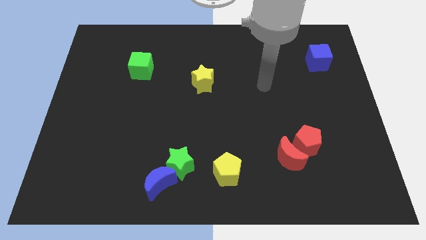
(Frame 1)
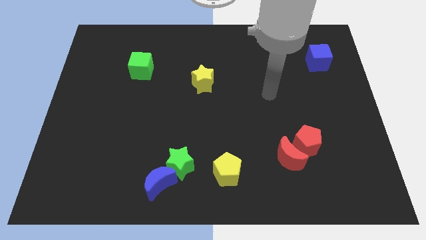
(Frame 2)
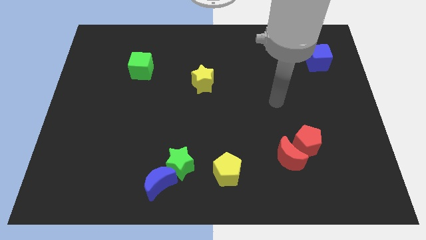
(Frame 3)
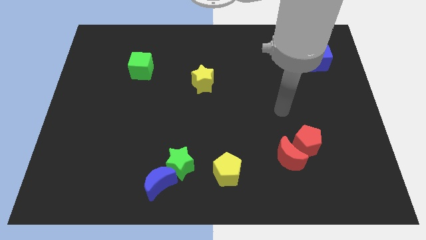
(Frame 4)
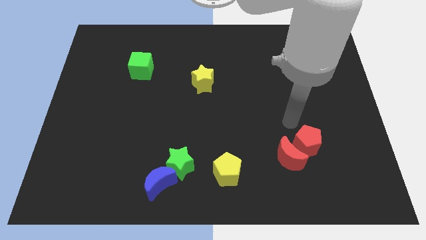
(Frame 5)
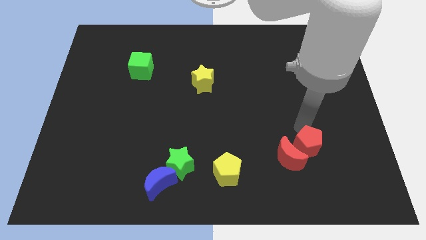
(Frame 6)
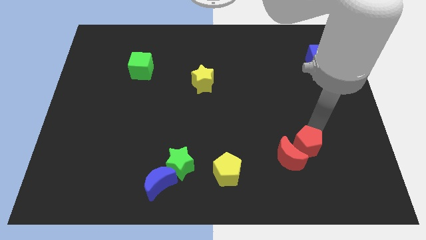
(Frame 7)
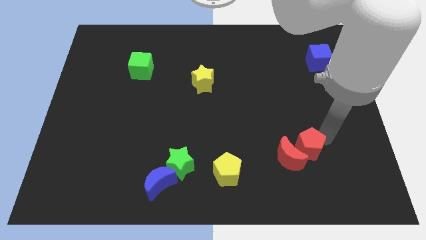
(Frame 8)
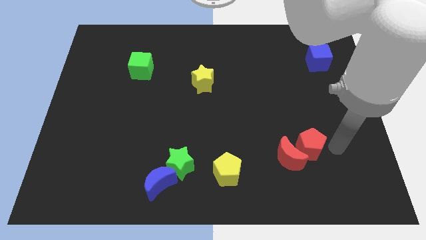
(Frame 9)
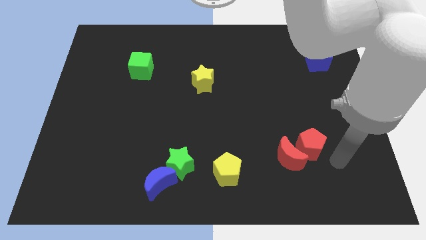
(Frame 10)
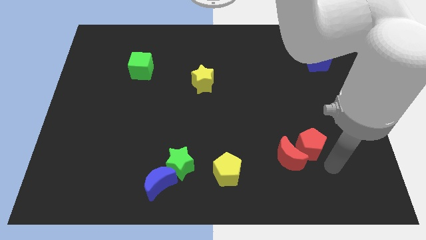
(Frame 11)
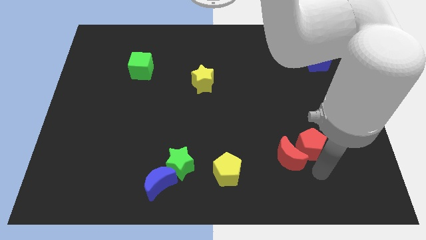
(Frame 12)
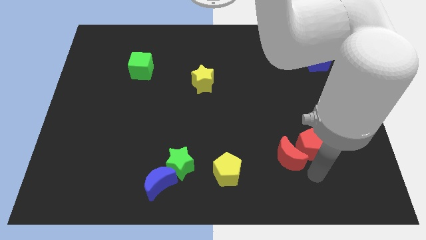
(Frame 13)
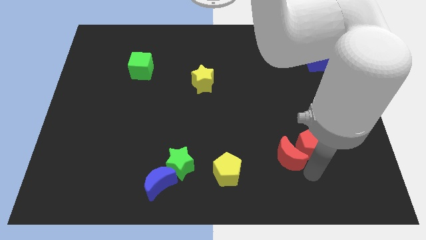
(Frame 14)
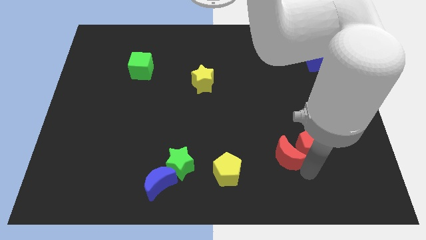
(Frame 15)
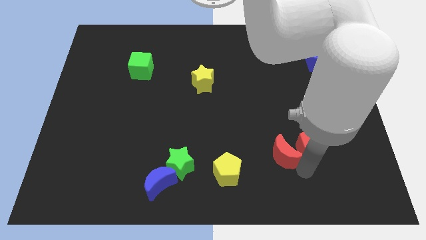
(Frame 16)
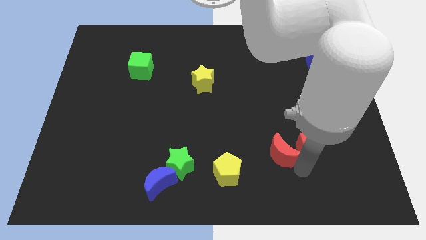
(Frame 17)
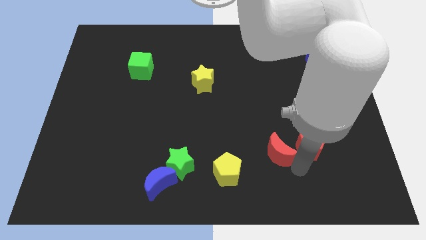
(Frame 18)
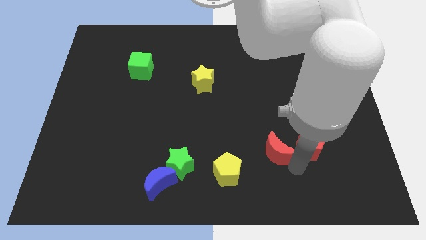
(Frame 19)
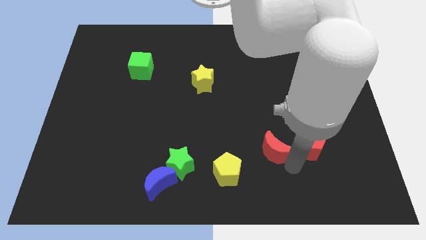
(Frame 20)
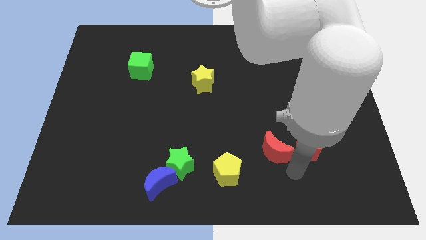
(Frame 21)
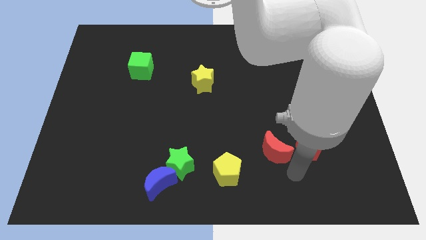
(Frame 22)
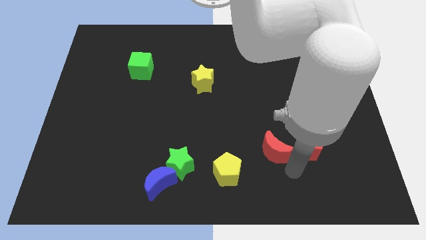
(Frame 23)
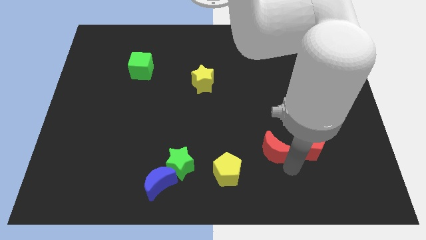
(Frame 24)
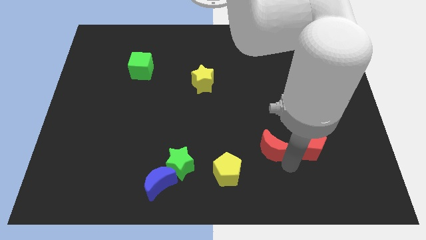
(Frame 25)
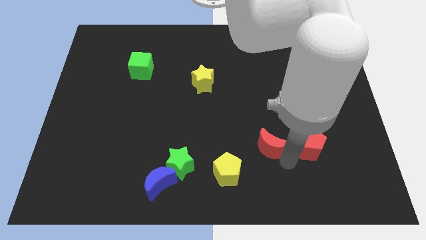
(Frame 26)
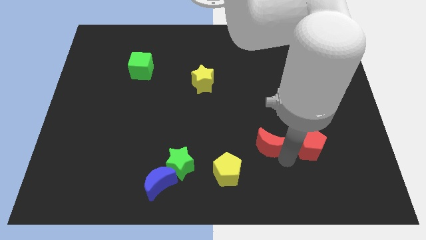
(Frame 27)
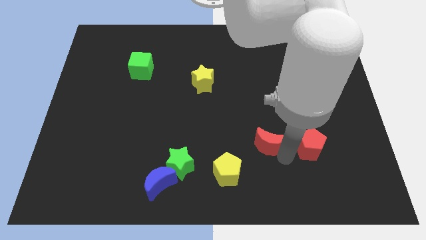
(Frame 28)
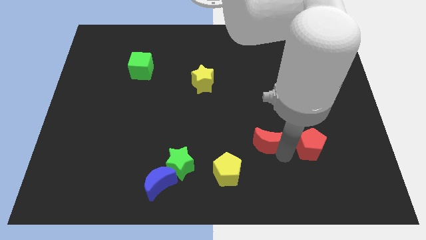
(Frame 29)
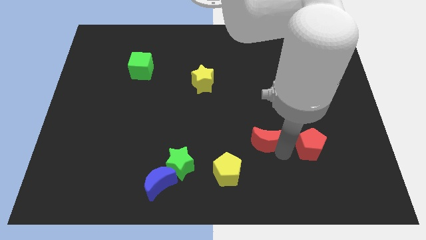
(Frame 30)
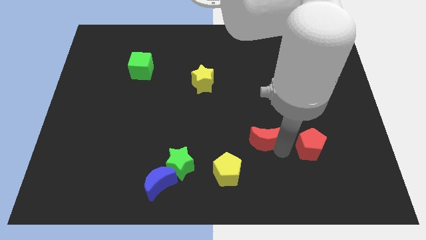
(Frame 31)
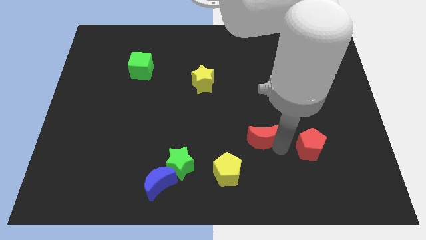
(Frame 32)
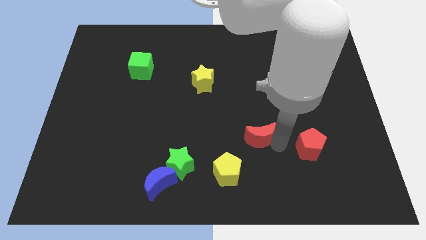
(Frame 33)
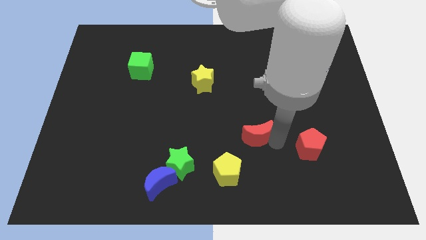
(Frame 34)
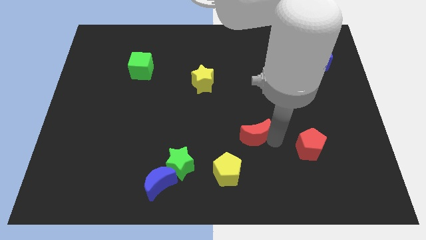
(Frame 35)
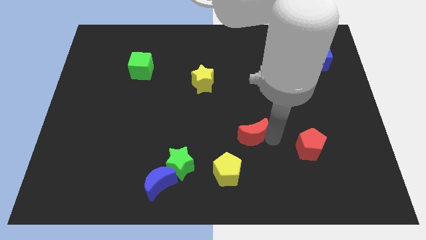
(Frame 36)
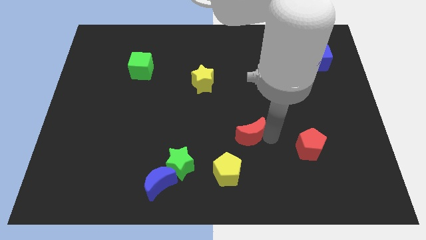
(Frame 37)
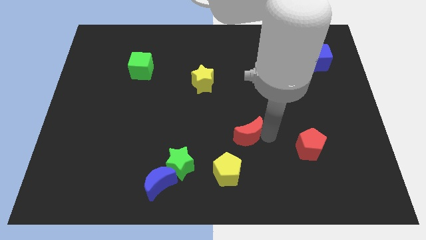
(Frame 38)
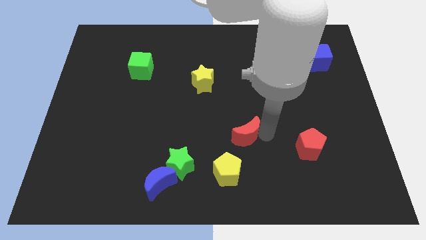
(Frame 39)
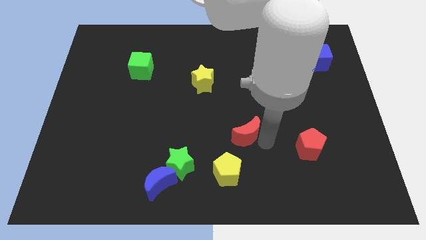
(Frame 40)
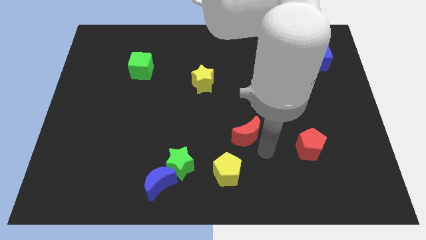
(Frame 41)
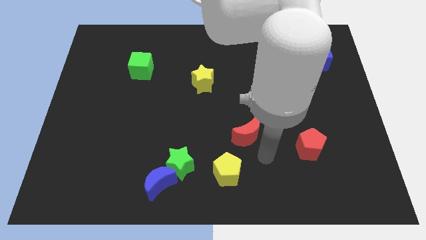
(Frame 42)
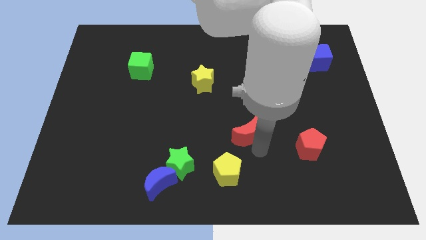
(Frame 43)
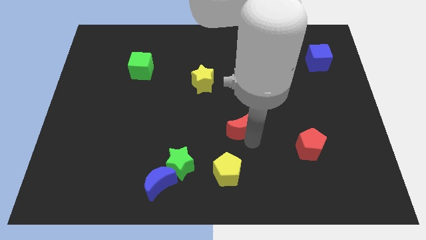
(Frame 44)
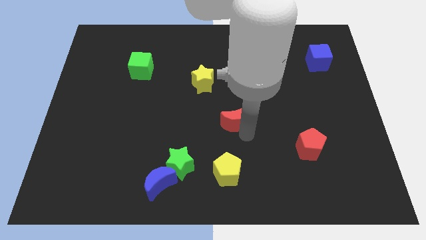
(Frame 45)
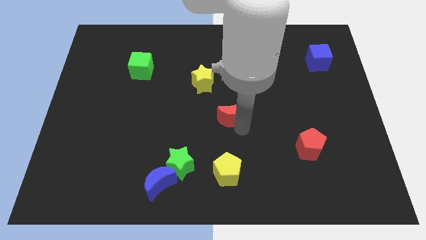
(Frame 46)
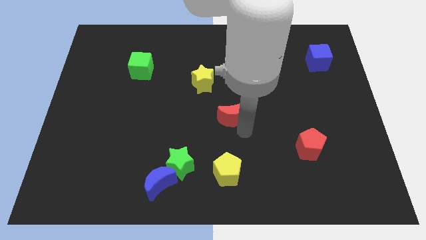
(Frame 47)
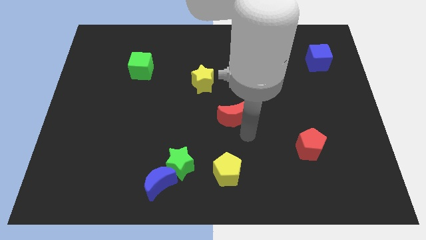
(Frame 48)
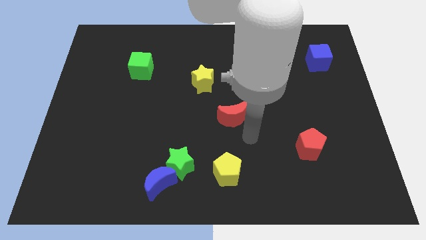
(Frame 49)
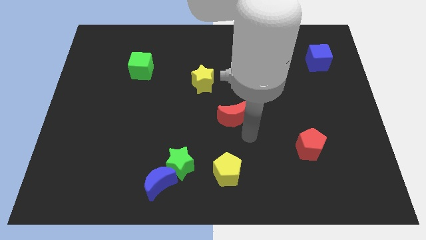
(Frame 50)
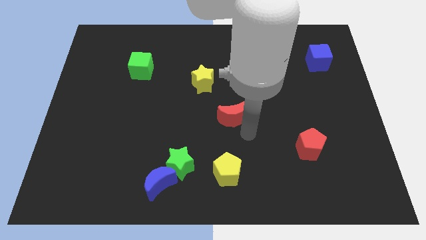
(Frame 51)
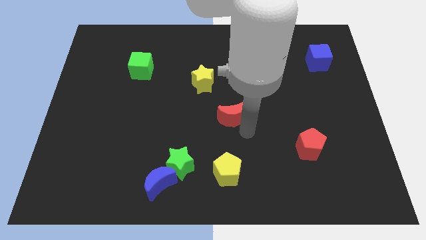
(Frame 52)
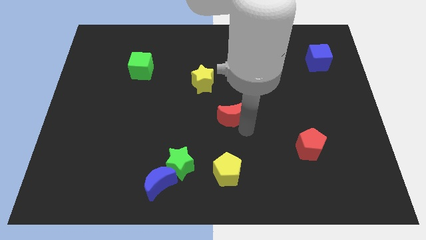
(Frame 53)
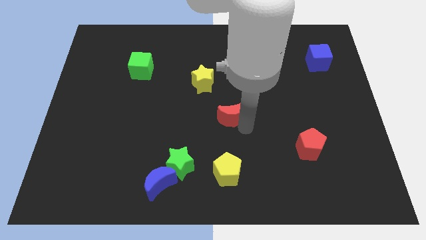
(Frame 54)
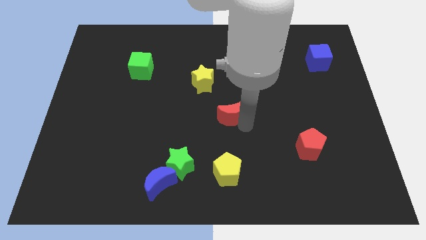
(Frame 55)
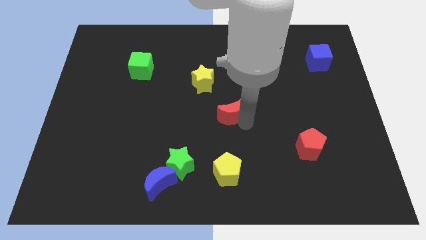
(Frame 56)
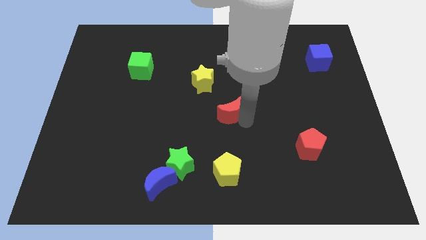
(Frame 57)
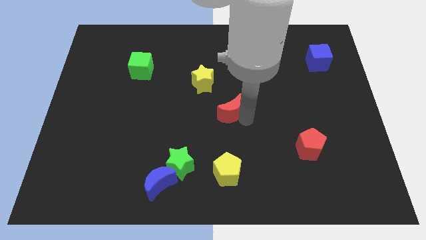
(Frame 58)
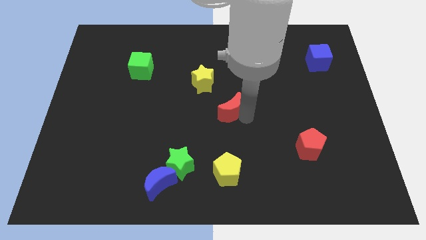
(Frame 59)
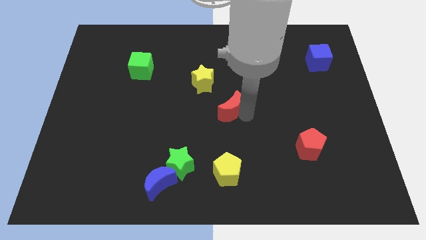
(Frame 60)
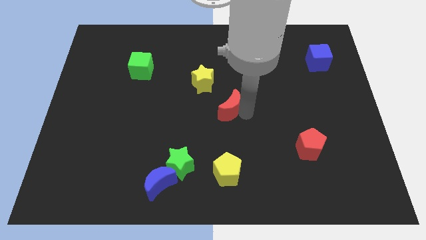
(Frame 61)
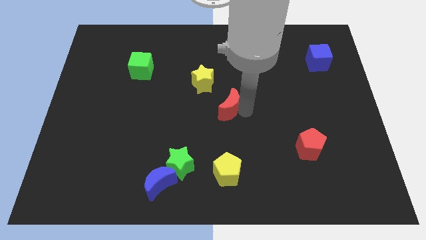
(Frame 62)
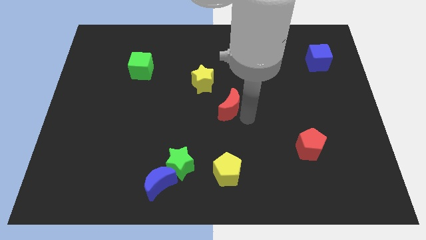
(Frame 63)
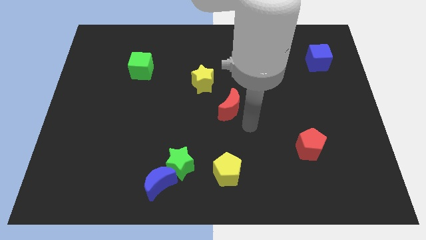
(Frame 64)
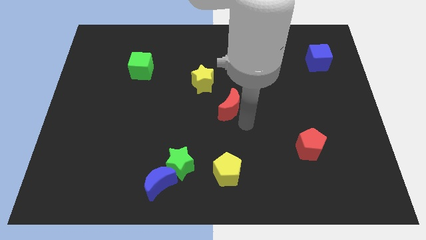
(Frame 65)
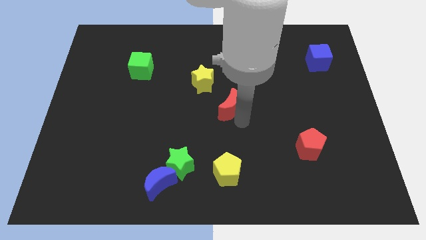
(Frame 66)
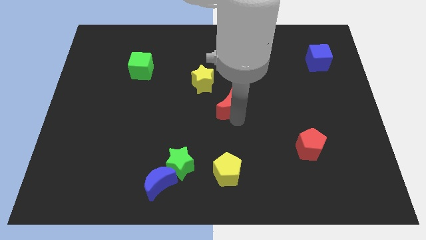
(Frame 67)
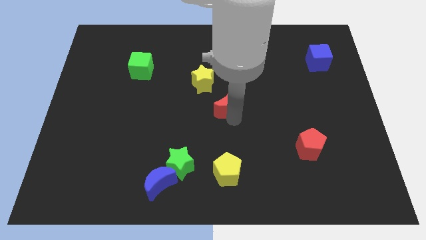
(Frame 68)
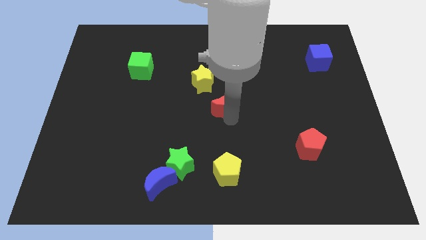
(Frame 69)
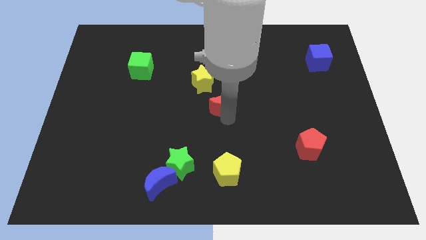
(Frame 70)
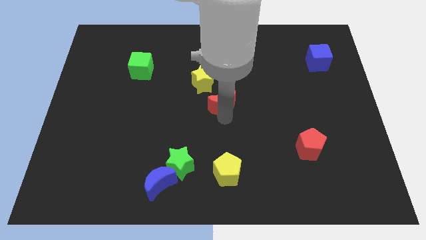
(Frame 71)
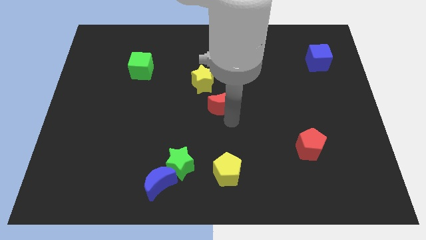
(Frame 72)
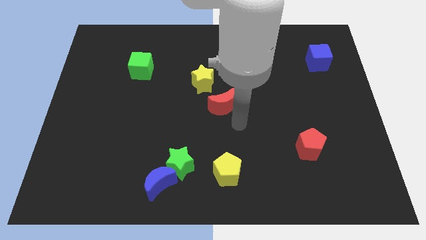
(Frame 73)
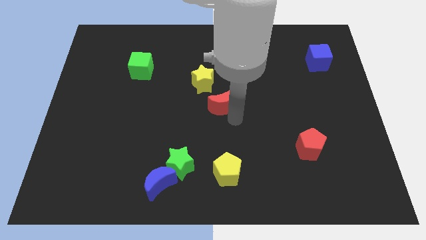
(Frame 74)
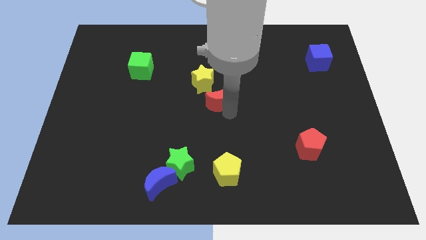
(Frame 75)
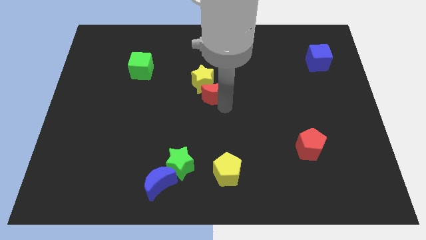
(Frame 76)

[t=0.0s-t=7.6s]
put the red moon towards the yellow star
